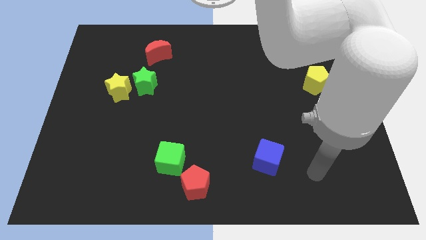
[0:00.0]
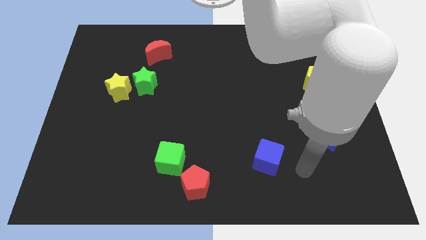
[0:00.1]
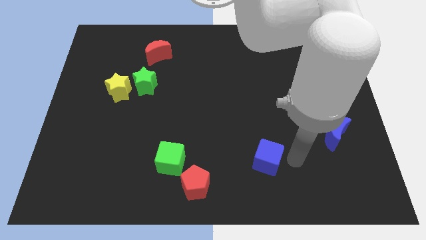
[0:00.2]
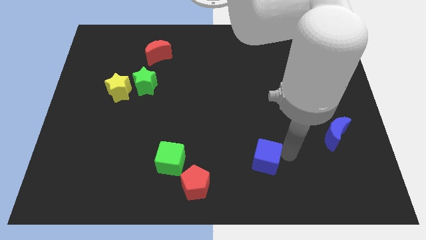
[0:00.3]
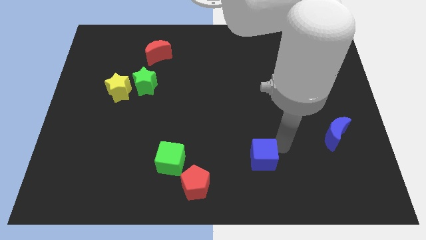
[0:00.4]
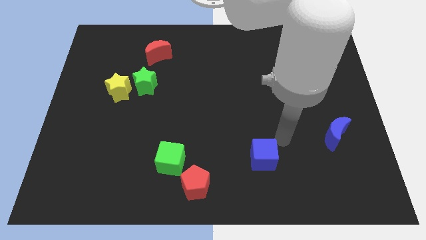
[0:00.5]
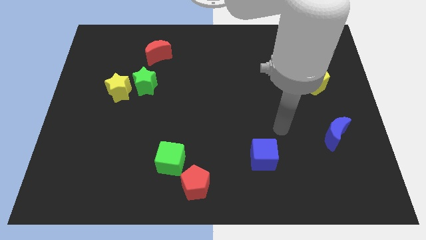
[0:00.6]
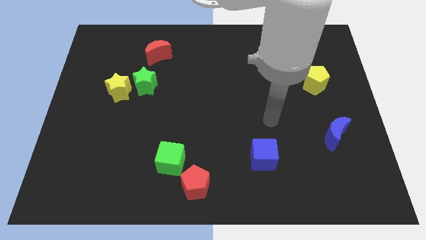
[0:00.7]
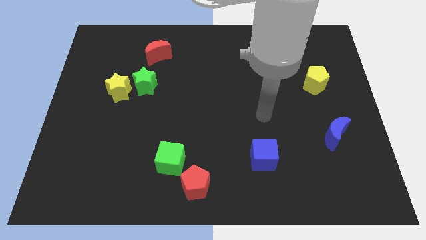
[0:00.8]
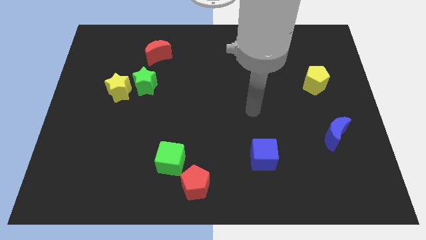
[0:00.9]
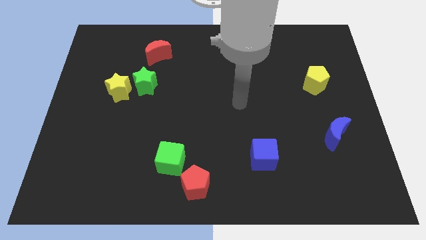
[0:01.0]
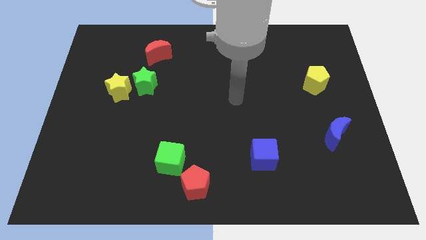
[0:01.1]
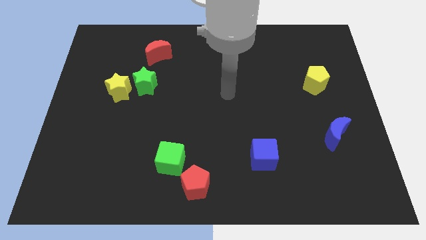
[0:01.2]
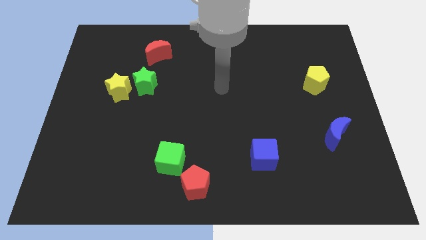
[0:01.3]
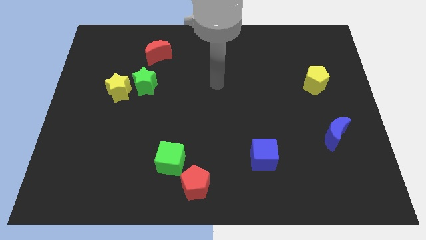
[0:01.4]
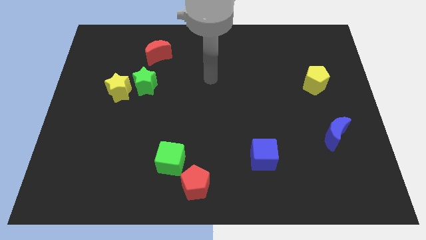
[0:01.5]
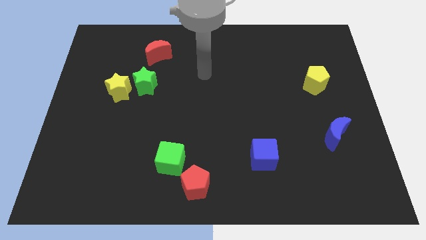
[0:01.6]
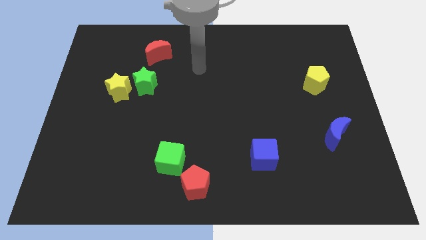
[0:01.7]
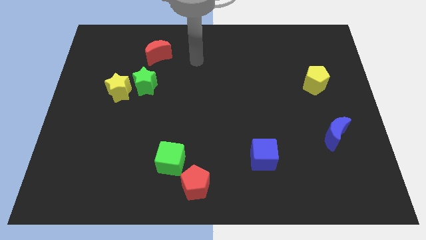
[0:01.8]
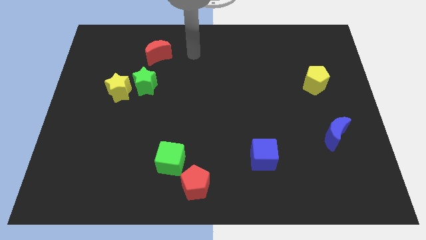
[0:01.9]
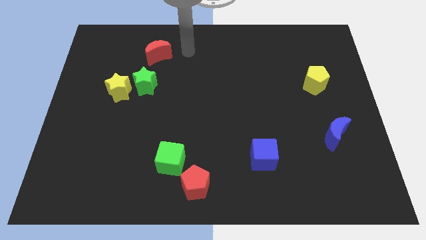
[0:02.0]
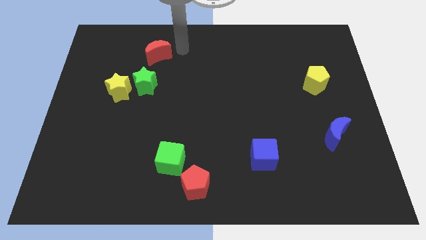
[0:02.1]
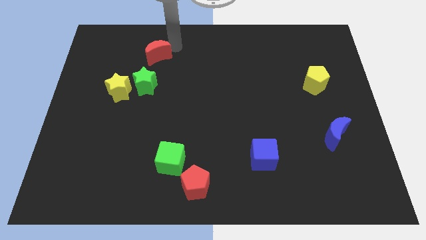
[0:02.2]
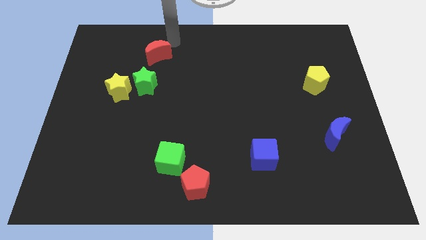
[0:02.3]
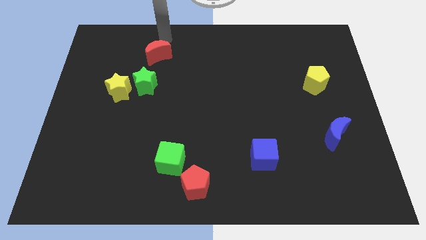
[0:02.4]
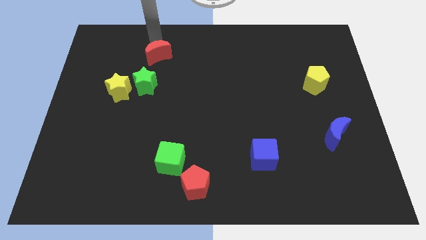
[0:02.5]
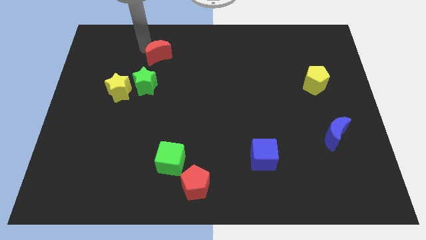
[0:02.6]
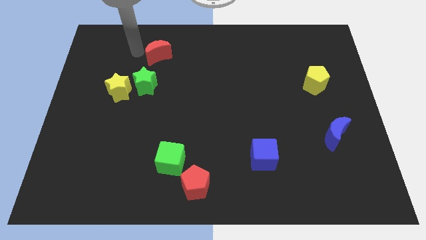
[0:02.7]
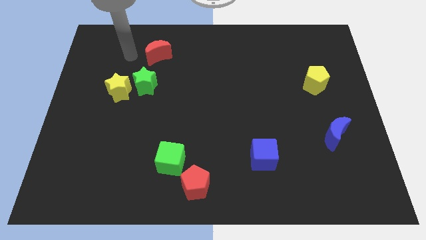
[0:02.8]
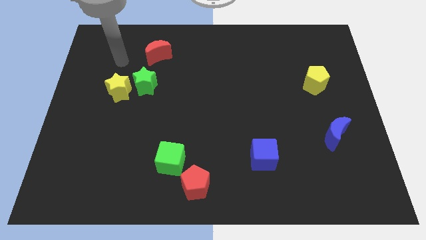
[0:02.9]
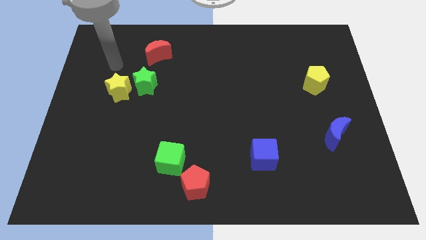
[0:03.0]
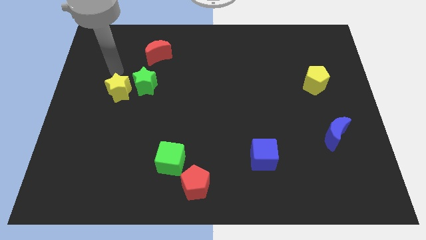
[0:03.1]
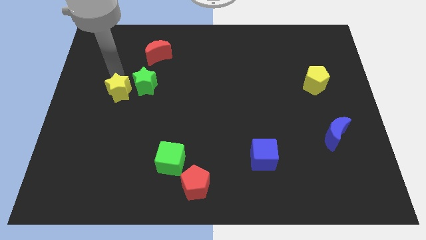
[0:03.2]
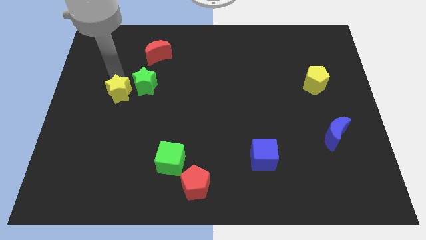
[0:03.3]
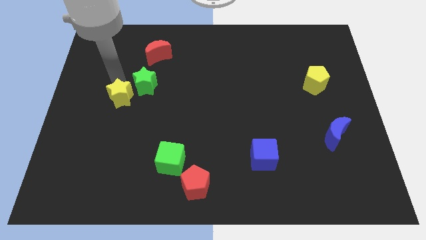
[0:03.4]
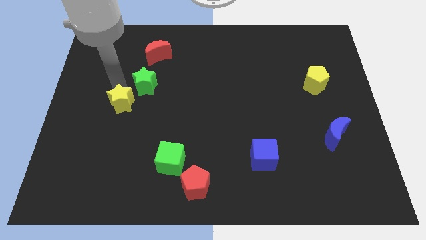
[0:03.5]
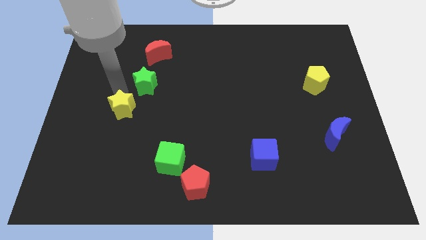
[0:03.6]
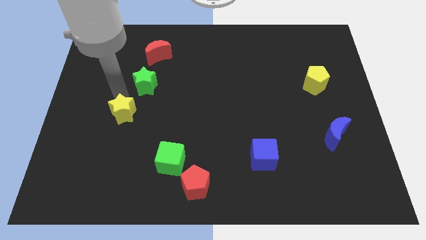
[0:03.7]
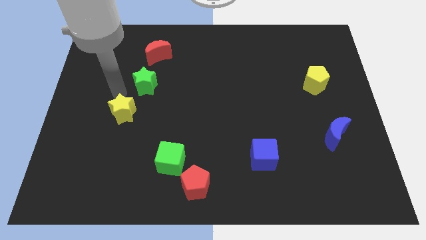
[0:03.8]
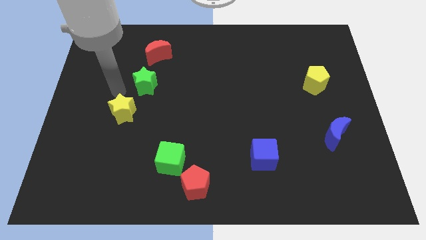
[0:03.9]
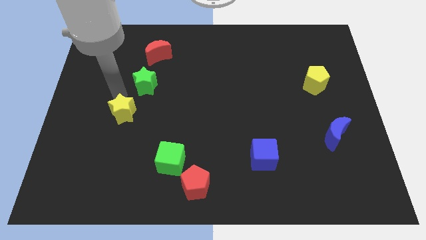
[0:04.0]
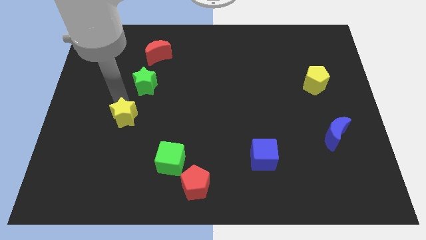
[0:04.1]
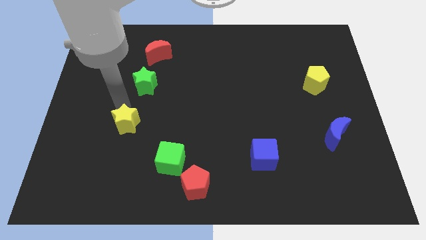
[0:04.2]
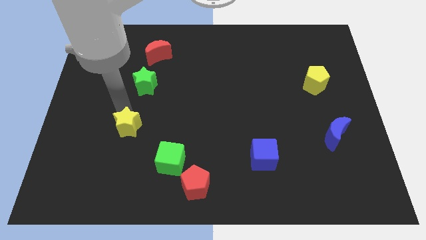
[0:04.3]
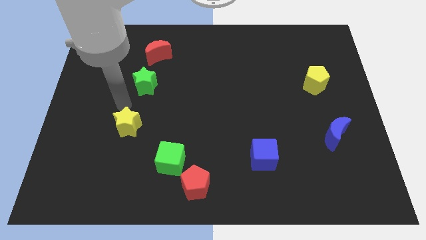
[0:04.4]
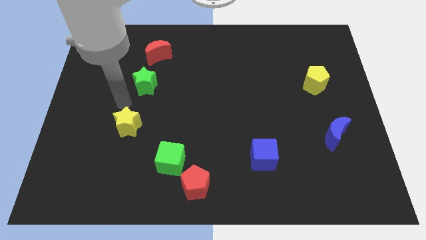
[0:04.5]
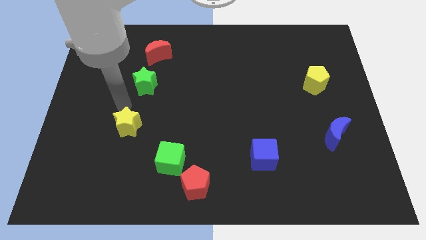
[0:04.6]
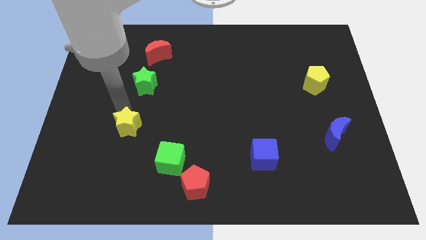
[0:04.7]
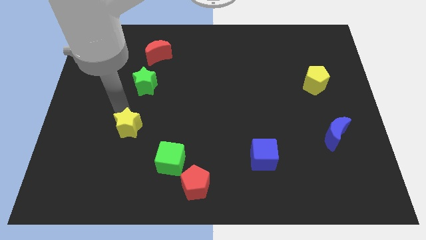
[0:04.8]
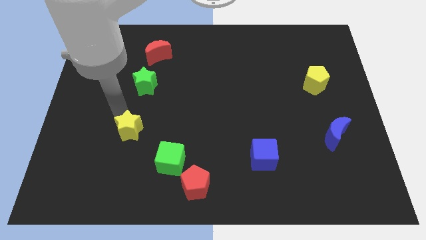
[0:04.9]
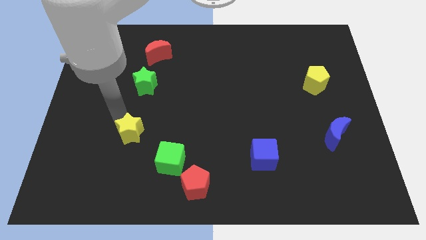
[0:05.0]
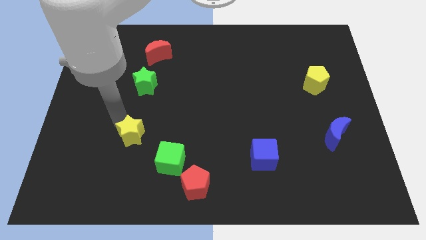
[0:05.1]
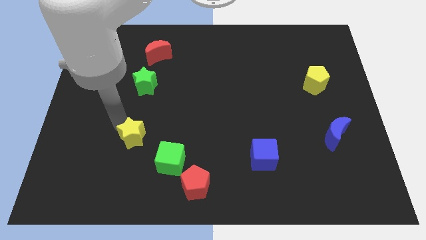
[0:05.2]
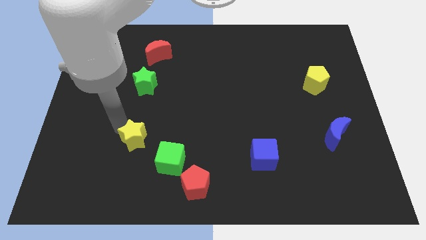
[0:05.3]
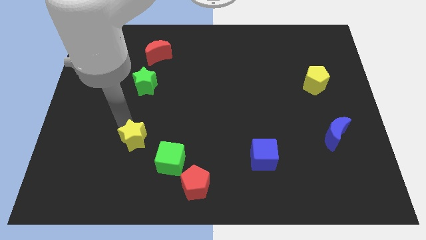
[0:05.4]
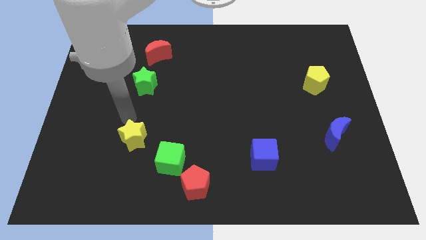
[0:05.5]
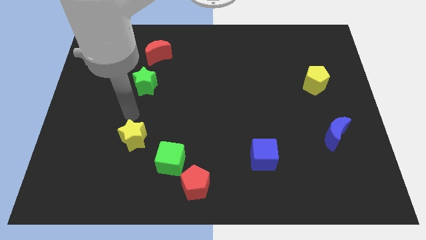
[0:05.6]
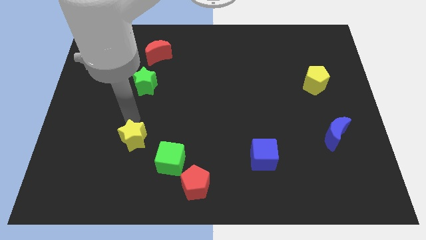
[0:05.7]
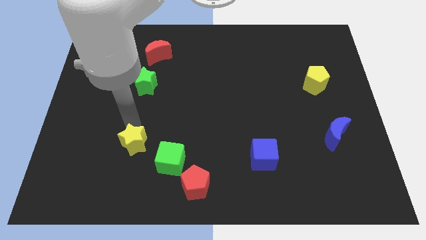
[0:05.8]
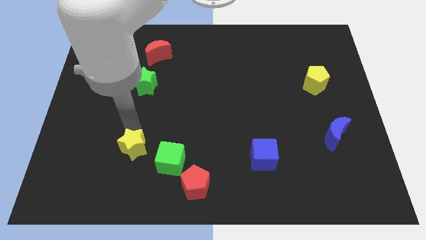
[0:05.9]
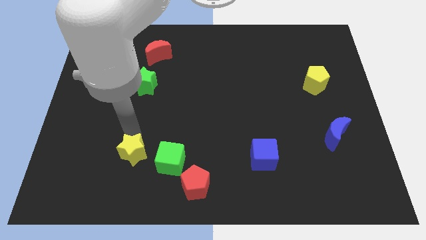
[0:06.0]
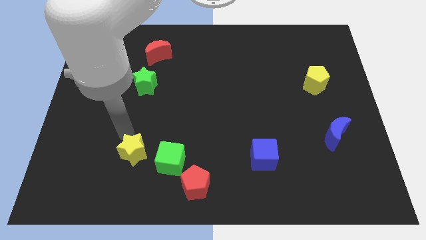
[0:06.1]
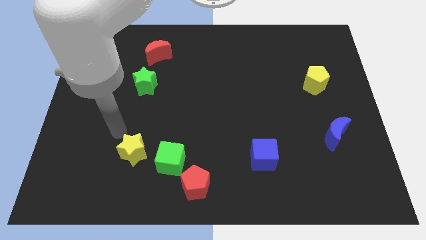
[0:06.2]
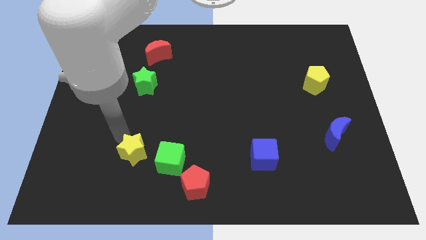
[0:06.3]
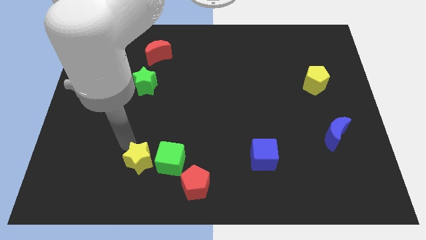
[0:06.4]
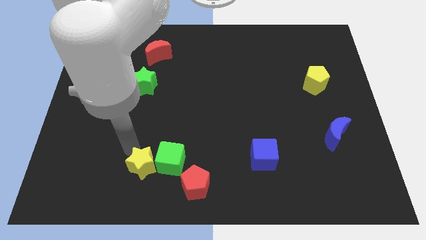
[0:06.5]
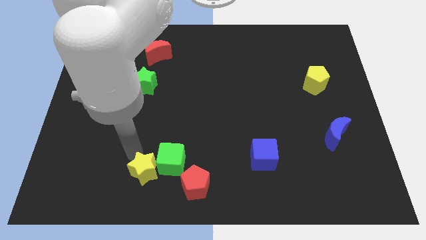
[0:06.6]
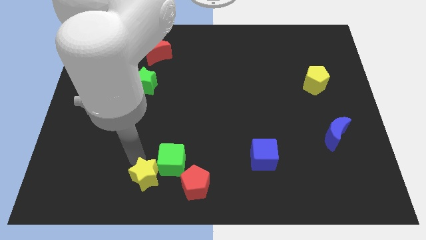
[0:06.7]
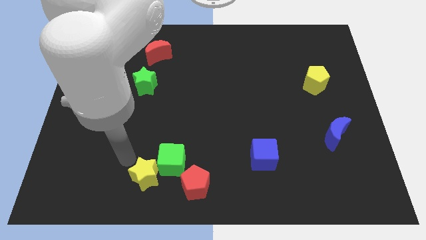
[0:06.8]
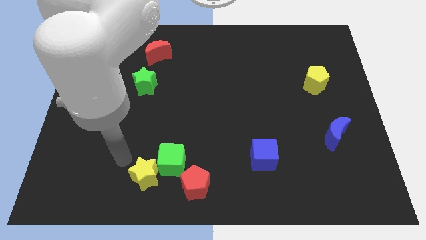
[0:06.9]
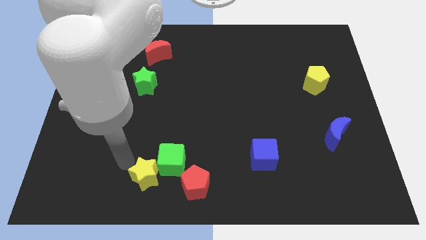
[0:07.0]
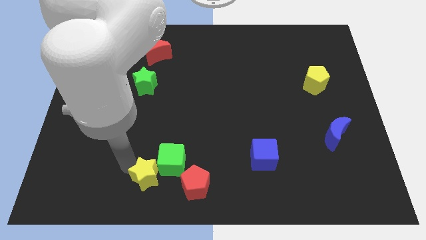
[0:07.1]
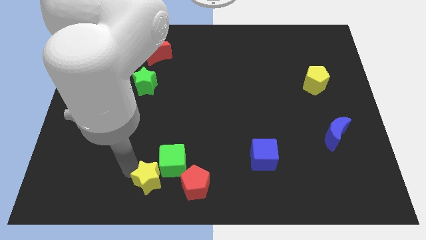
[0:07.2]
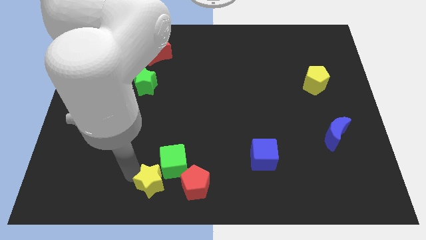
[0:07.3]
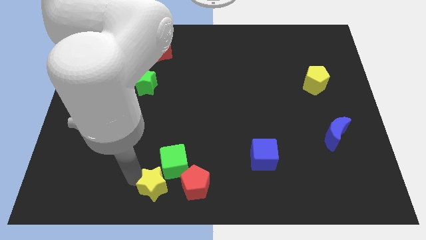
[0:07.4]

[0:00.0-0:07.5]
put the yellow star to the bottom side

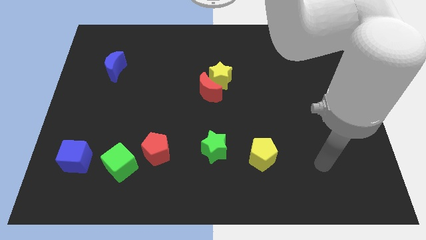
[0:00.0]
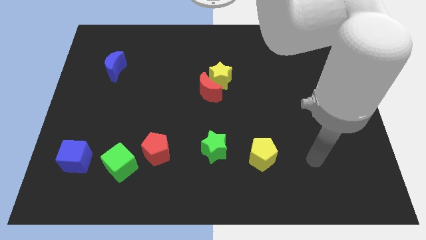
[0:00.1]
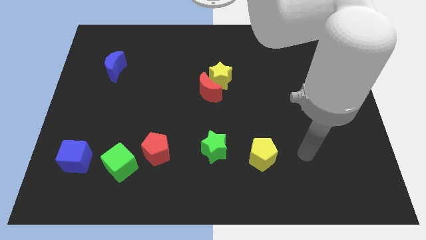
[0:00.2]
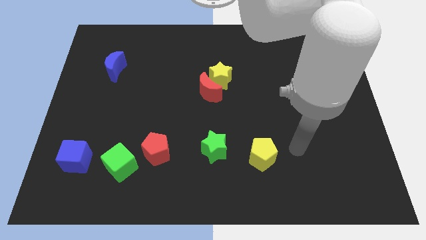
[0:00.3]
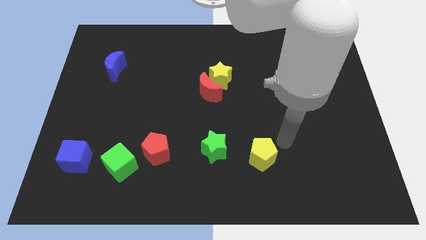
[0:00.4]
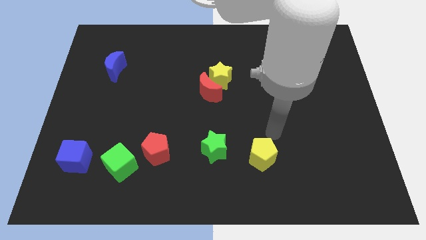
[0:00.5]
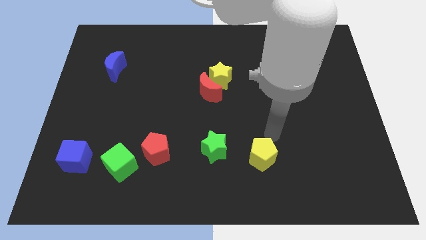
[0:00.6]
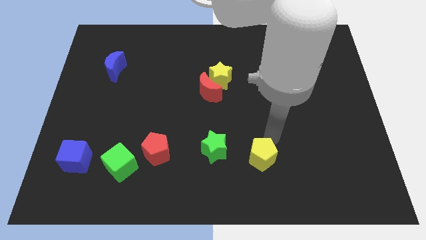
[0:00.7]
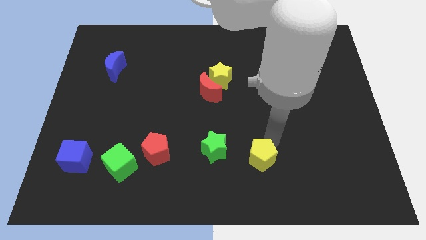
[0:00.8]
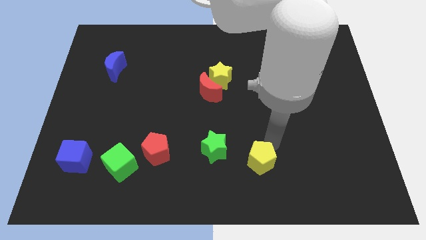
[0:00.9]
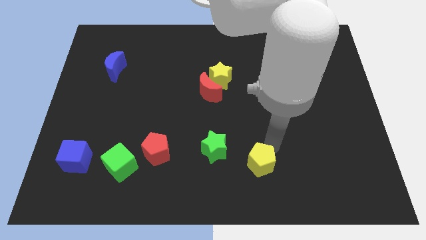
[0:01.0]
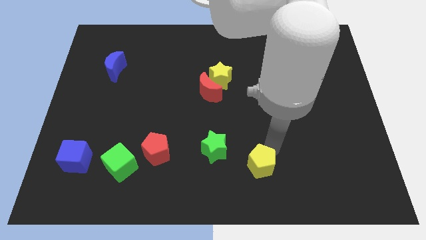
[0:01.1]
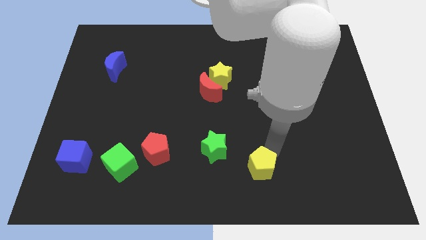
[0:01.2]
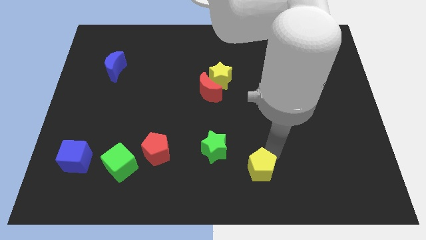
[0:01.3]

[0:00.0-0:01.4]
push the yellow pentagon to the bottom
